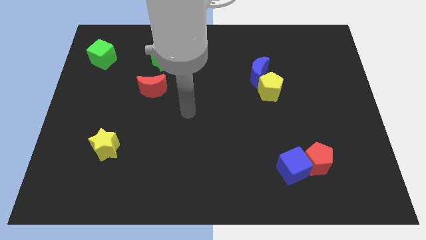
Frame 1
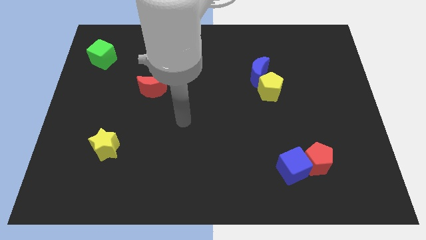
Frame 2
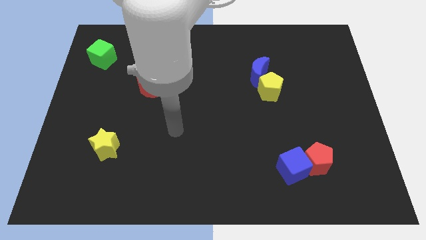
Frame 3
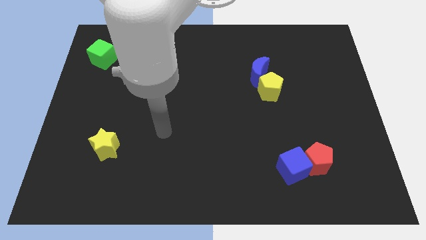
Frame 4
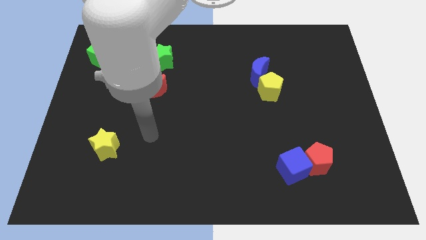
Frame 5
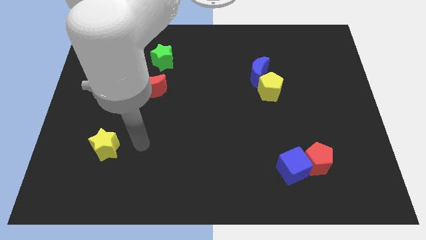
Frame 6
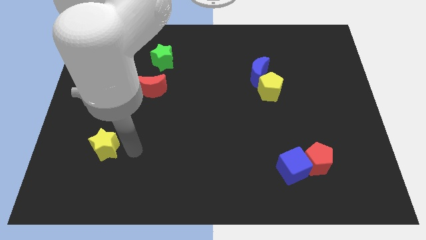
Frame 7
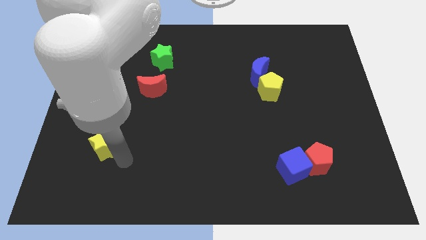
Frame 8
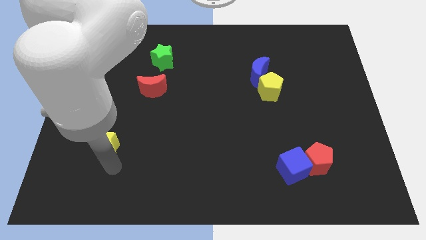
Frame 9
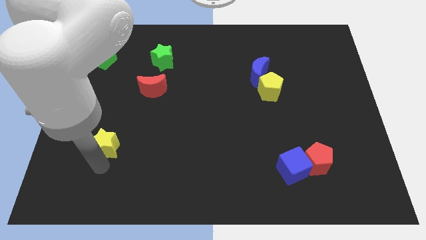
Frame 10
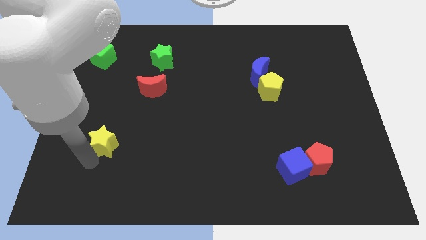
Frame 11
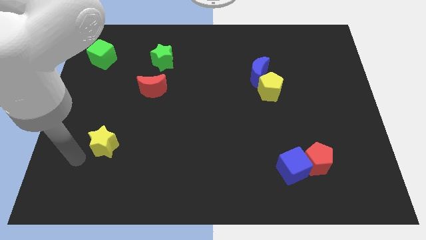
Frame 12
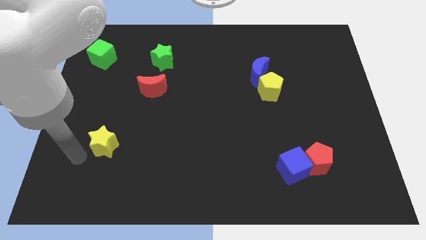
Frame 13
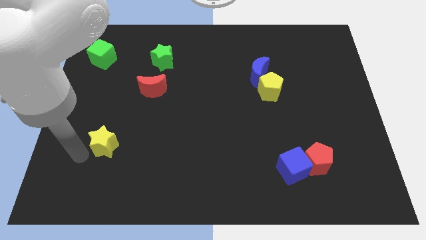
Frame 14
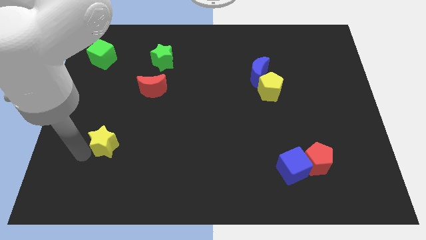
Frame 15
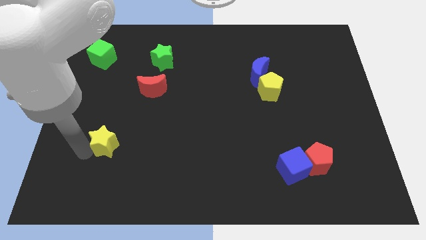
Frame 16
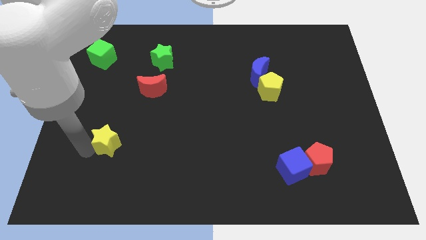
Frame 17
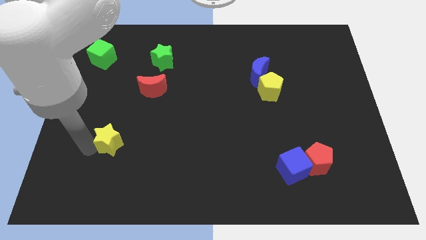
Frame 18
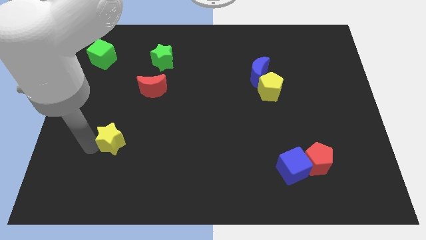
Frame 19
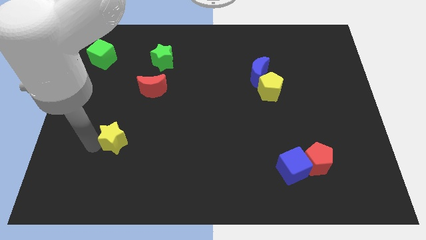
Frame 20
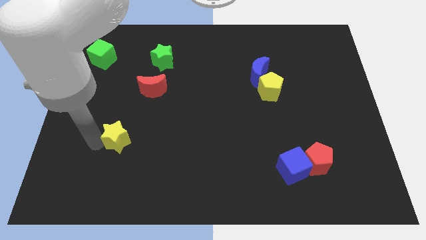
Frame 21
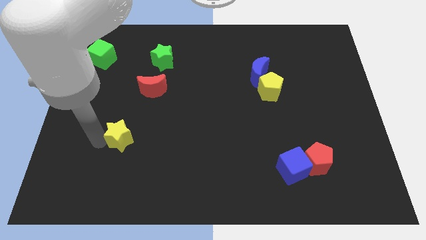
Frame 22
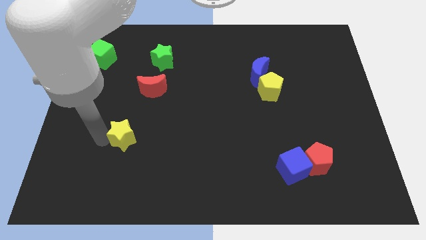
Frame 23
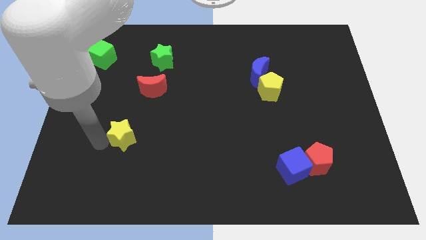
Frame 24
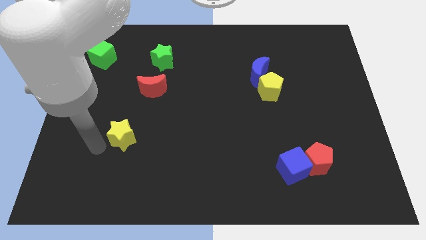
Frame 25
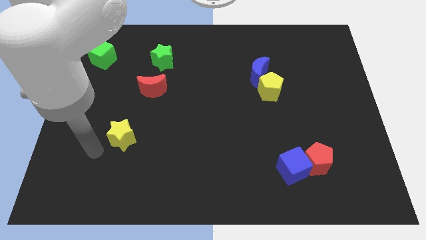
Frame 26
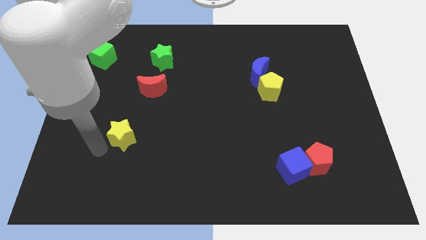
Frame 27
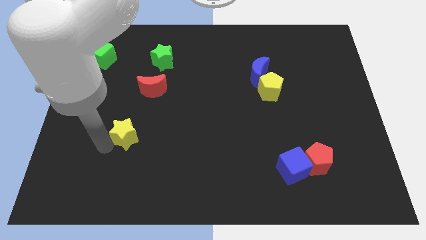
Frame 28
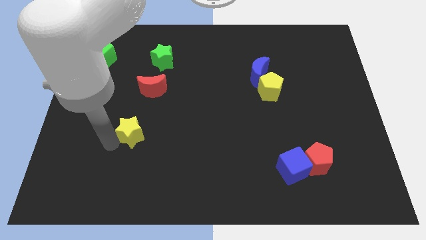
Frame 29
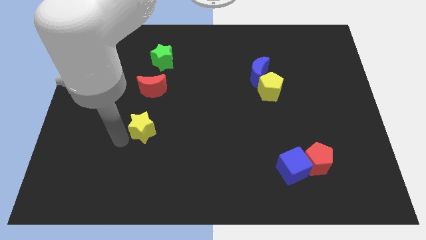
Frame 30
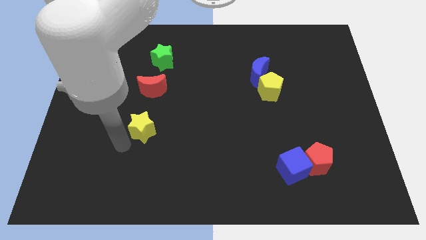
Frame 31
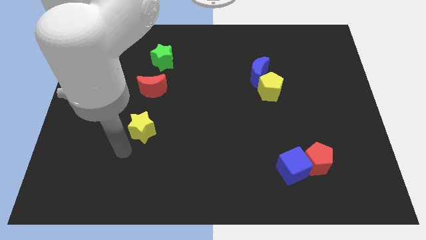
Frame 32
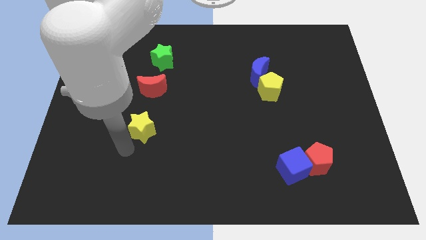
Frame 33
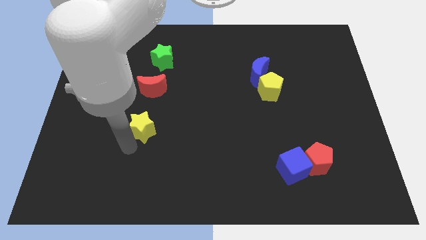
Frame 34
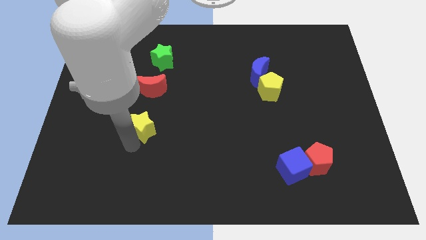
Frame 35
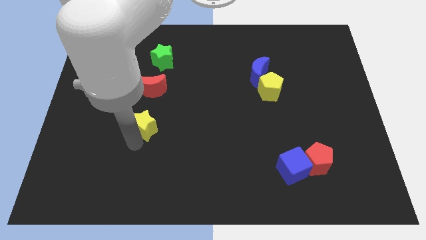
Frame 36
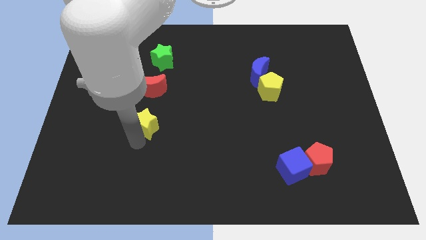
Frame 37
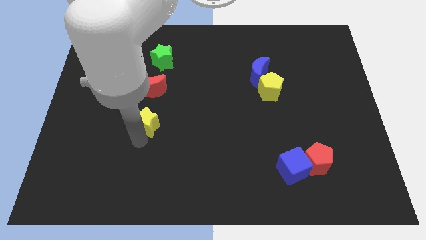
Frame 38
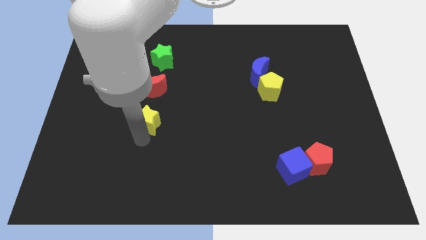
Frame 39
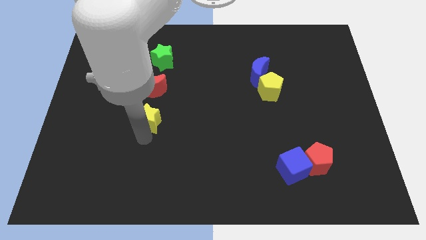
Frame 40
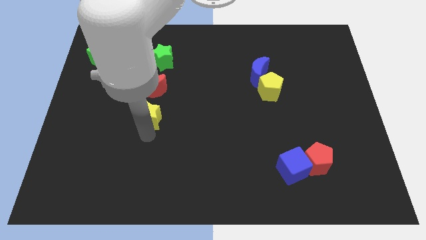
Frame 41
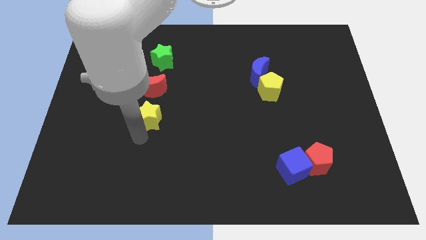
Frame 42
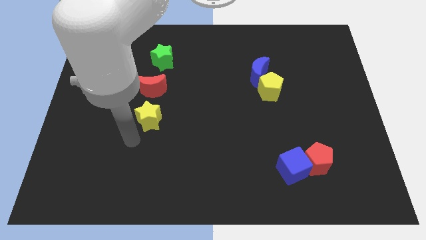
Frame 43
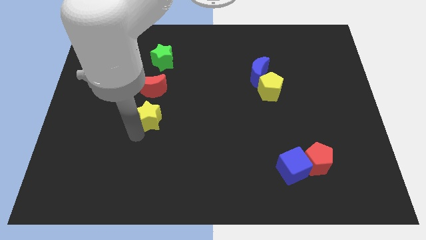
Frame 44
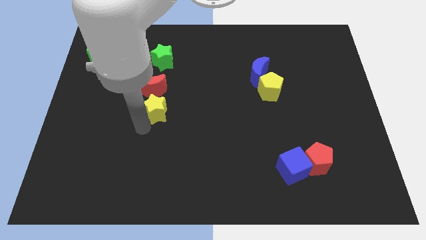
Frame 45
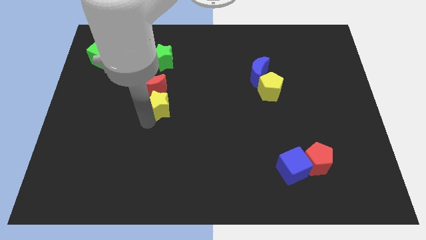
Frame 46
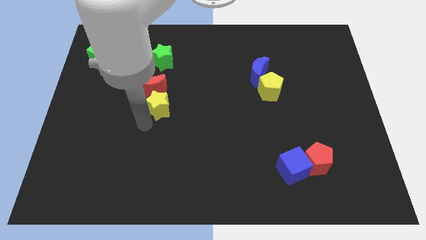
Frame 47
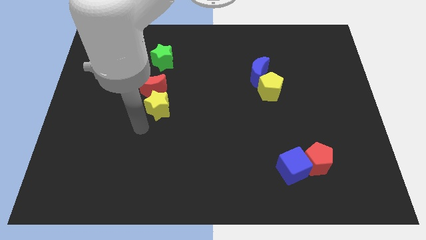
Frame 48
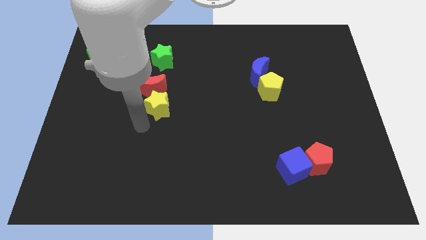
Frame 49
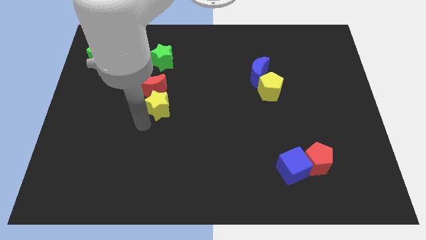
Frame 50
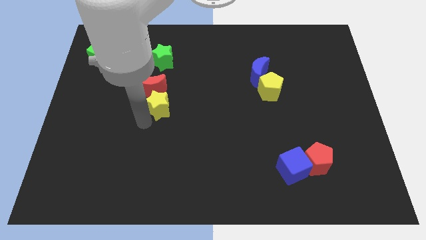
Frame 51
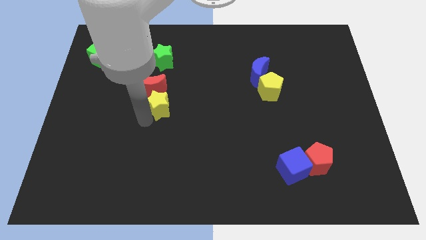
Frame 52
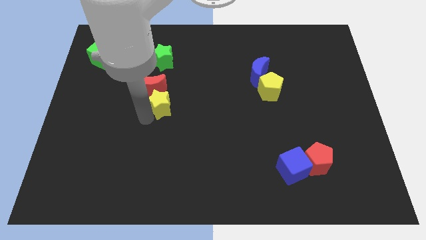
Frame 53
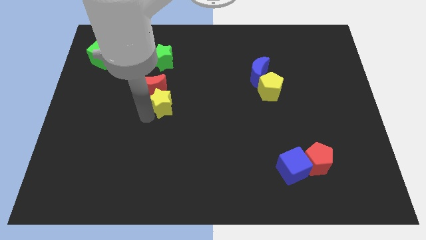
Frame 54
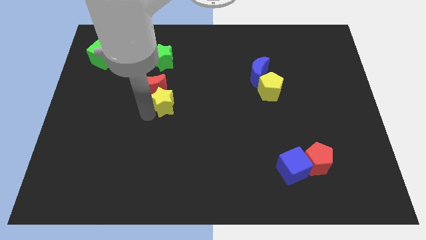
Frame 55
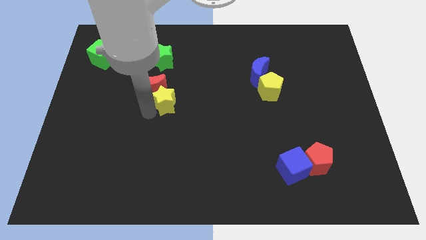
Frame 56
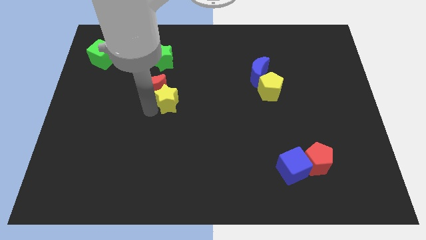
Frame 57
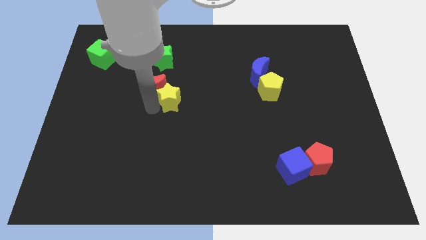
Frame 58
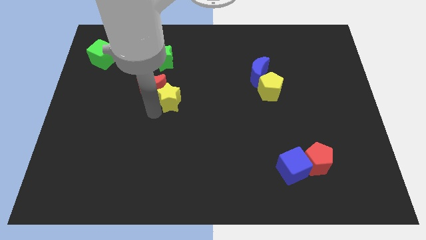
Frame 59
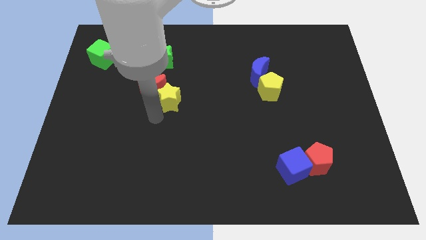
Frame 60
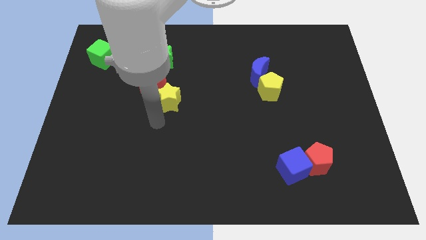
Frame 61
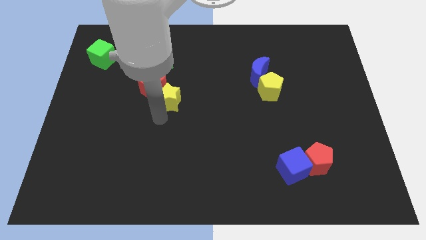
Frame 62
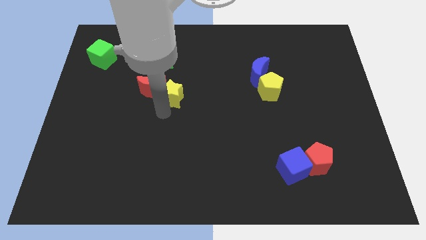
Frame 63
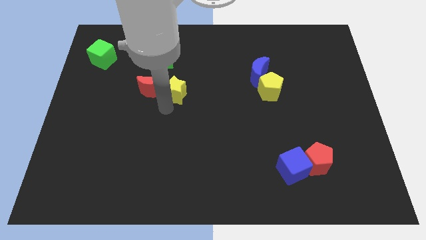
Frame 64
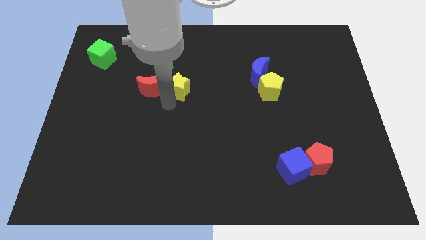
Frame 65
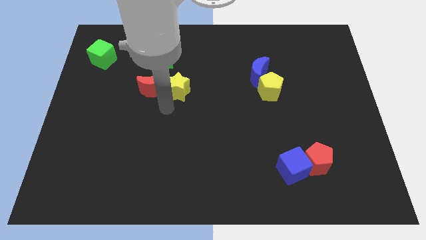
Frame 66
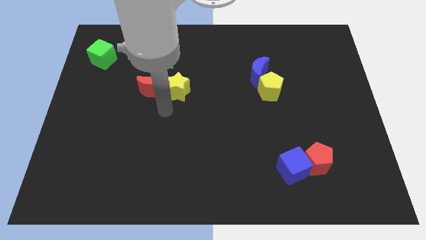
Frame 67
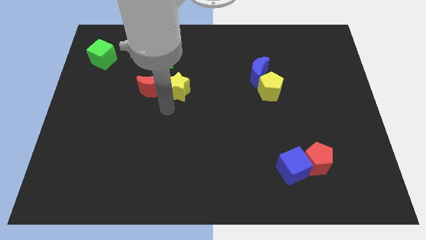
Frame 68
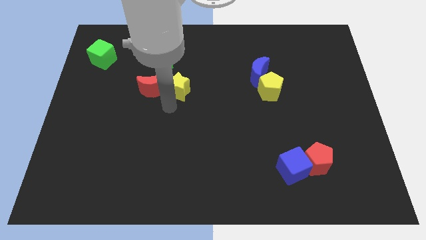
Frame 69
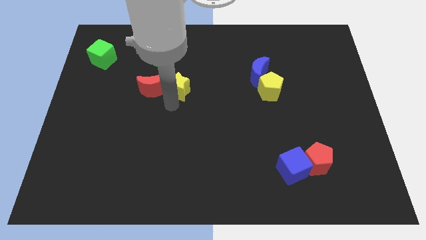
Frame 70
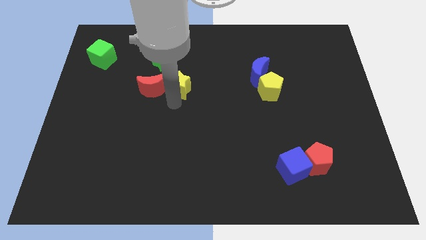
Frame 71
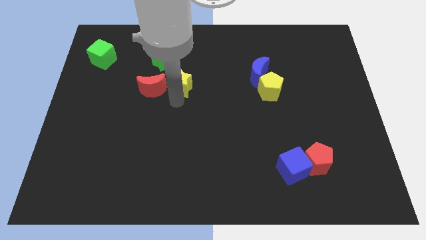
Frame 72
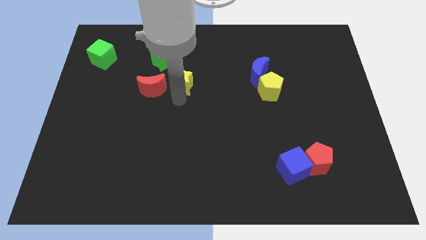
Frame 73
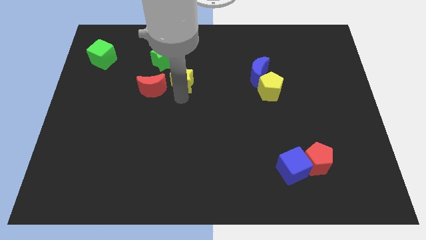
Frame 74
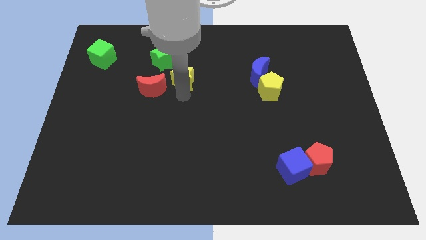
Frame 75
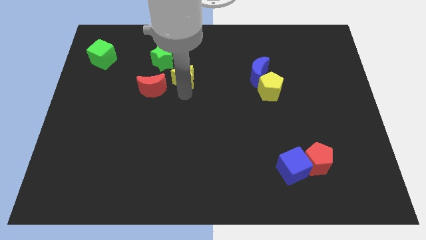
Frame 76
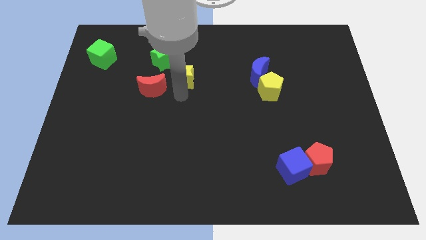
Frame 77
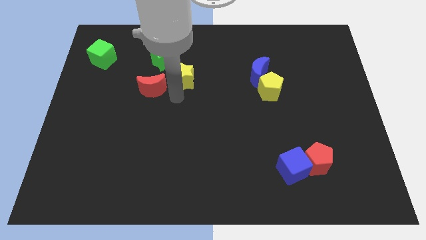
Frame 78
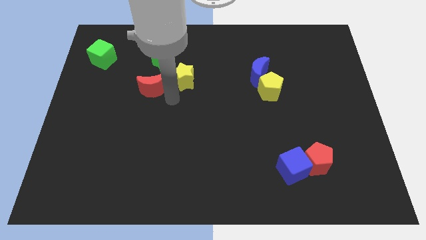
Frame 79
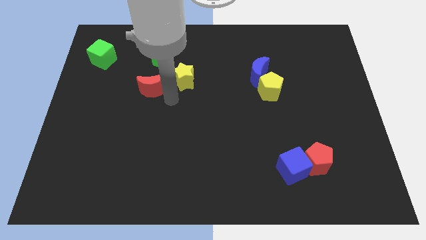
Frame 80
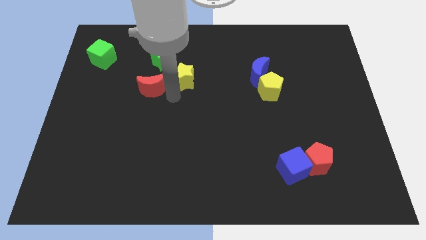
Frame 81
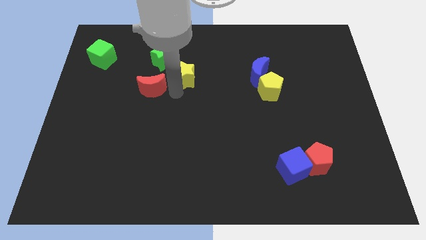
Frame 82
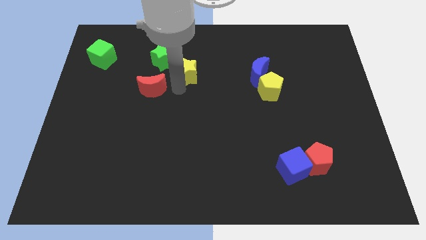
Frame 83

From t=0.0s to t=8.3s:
push the yellow star just right of the green star
